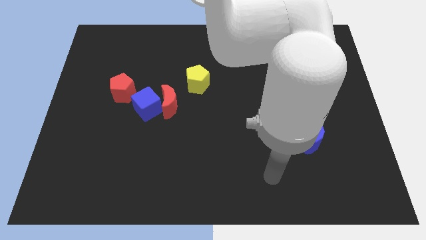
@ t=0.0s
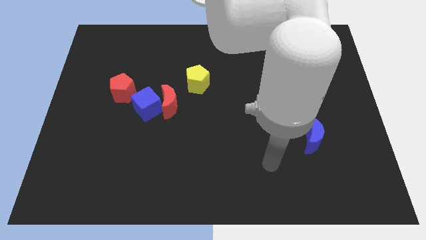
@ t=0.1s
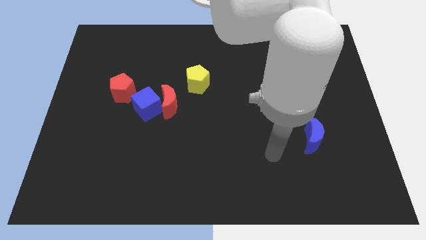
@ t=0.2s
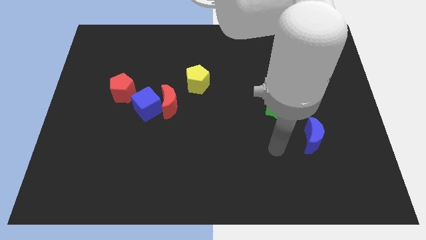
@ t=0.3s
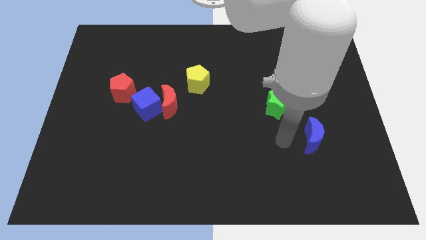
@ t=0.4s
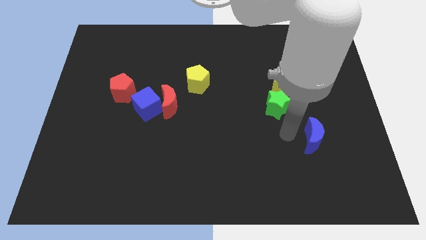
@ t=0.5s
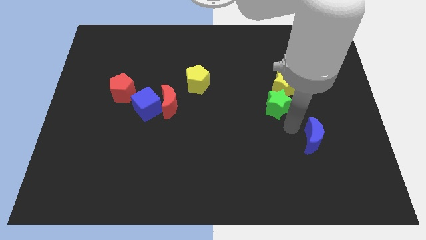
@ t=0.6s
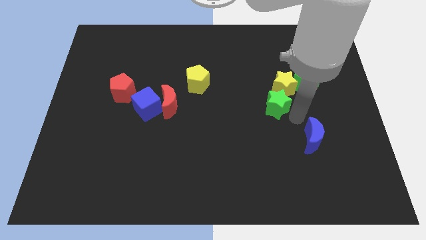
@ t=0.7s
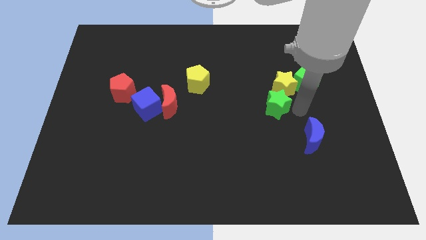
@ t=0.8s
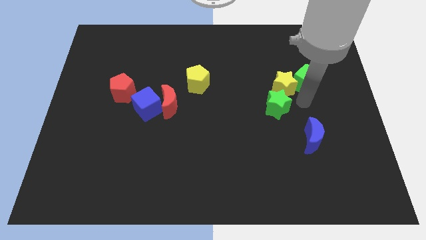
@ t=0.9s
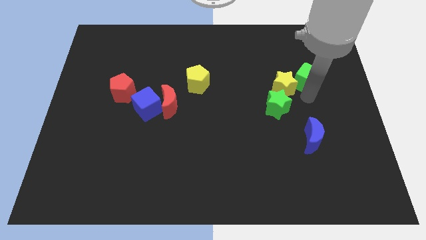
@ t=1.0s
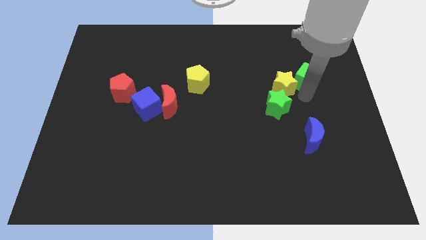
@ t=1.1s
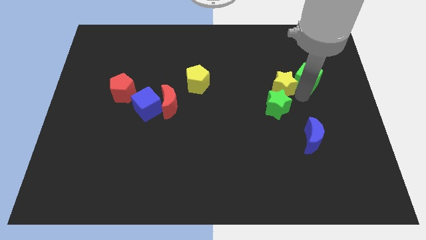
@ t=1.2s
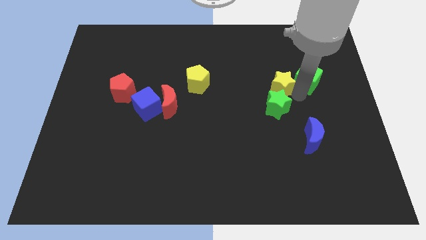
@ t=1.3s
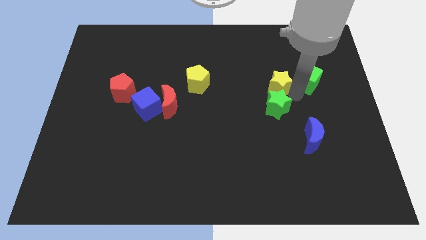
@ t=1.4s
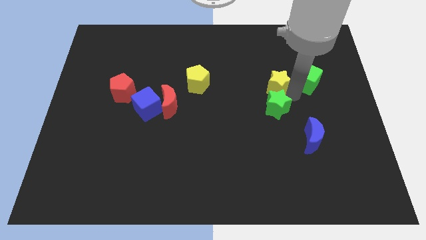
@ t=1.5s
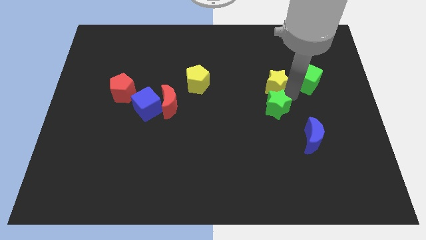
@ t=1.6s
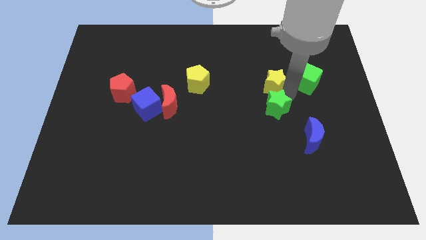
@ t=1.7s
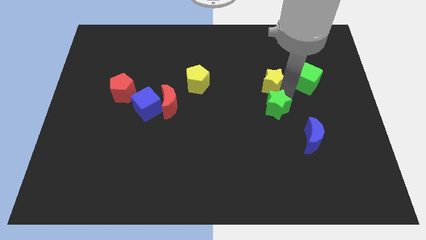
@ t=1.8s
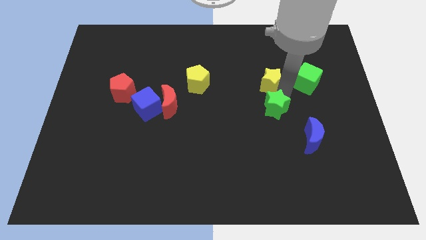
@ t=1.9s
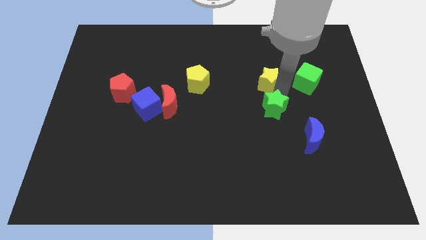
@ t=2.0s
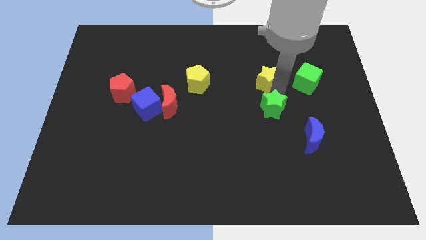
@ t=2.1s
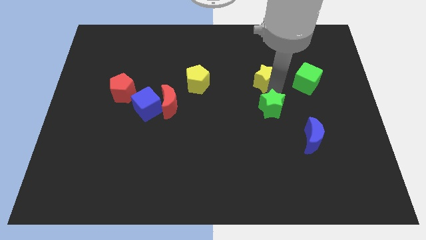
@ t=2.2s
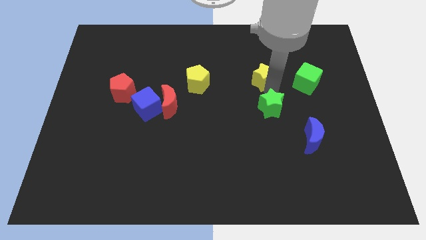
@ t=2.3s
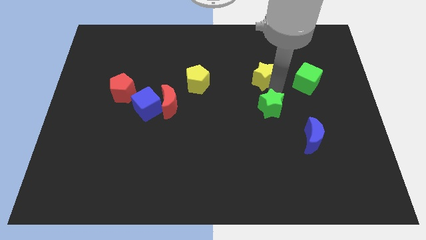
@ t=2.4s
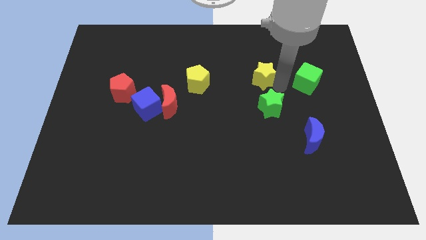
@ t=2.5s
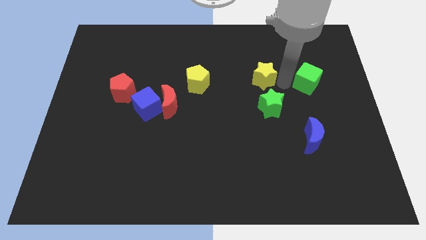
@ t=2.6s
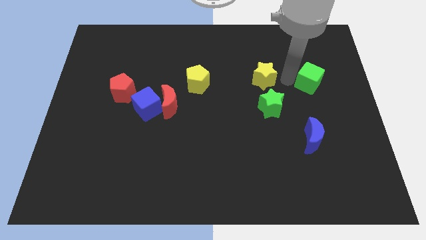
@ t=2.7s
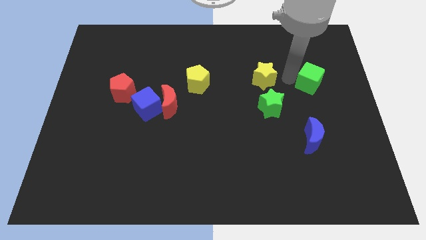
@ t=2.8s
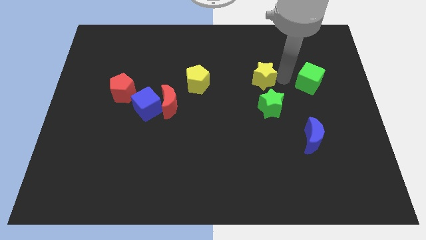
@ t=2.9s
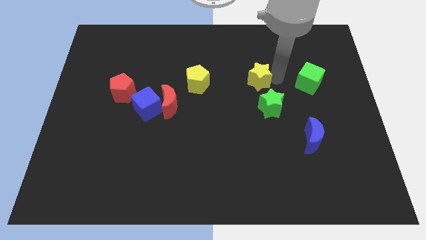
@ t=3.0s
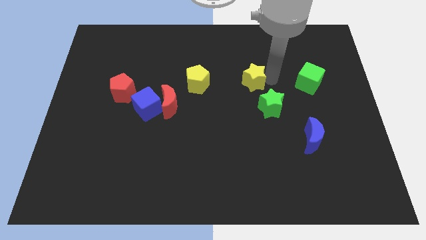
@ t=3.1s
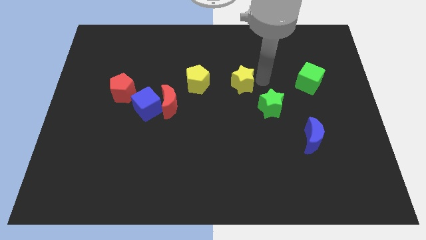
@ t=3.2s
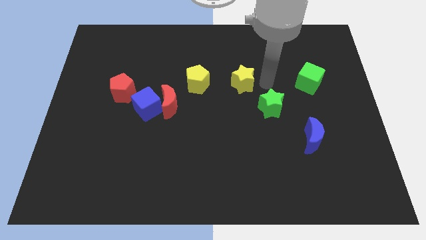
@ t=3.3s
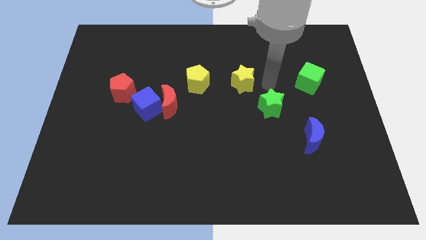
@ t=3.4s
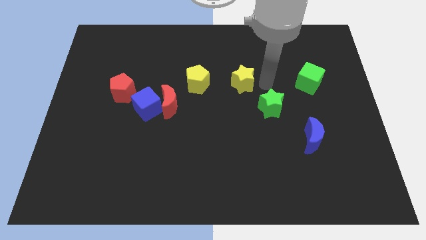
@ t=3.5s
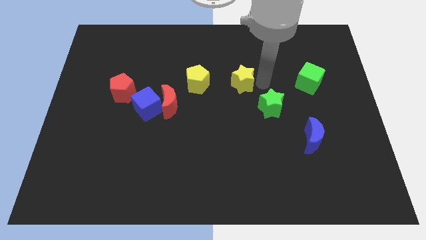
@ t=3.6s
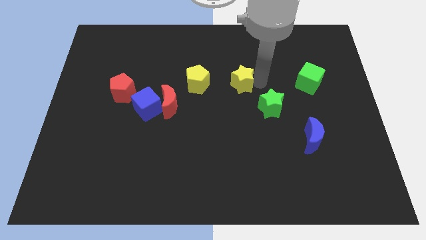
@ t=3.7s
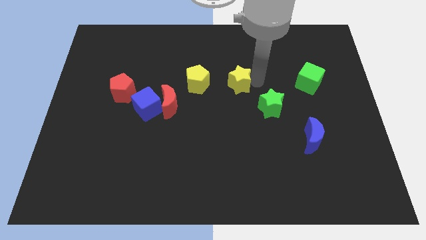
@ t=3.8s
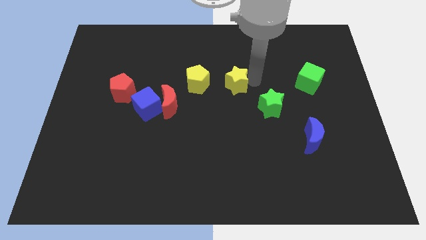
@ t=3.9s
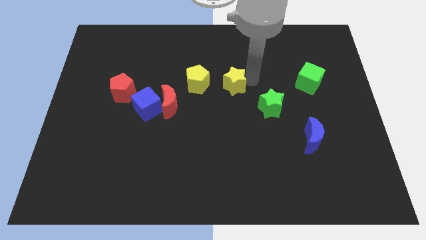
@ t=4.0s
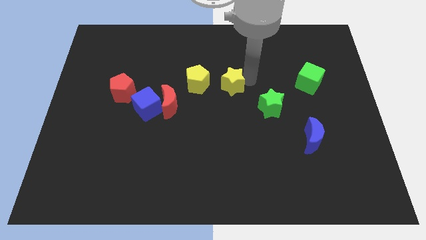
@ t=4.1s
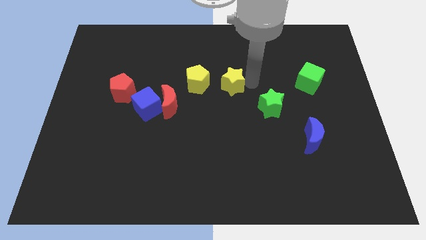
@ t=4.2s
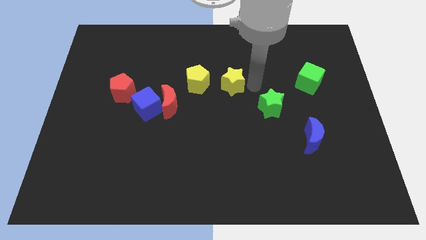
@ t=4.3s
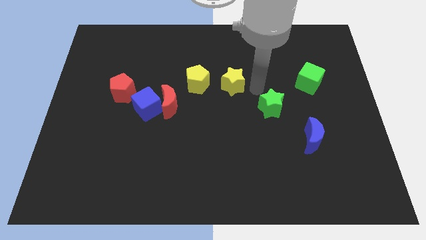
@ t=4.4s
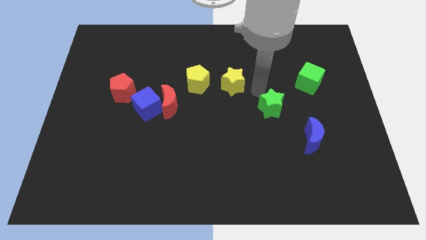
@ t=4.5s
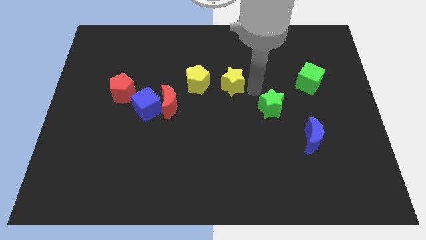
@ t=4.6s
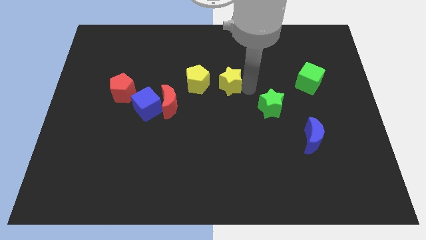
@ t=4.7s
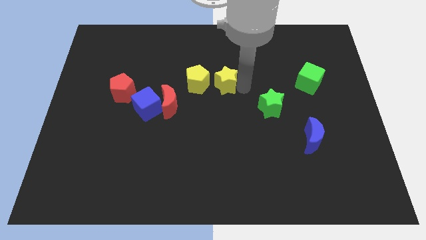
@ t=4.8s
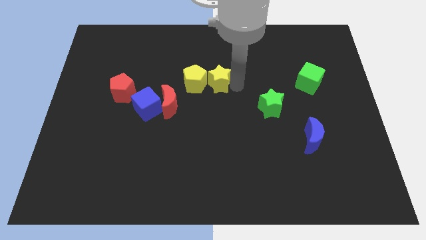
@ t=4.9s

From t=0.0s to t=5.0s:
push the yellow star close to the yellow pentagon

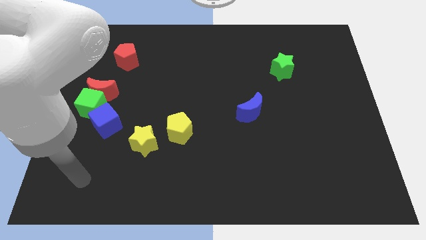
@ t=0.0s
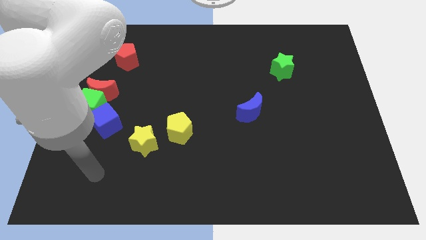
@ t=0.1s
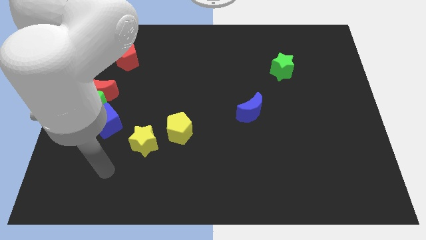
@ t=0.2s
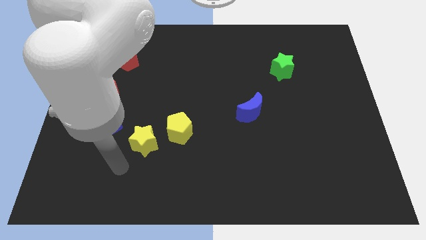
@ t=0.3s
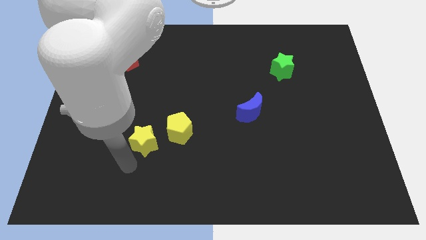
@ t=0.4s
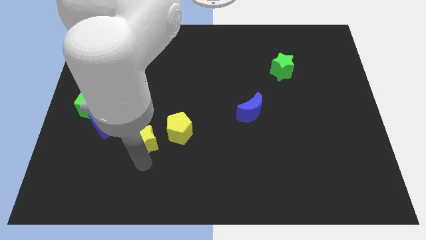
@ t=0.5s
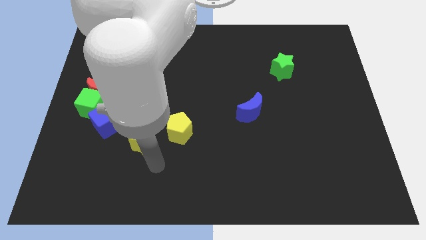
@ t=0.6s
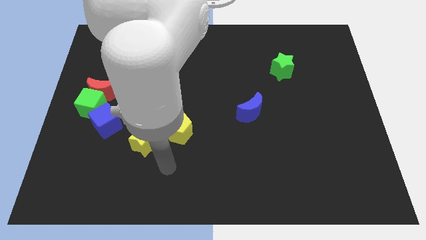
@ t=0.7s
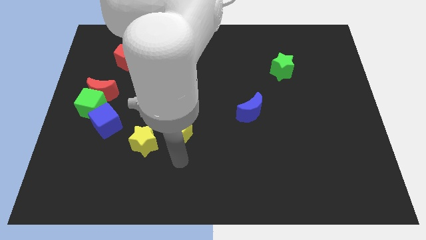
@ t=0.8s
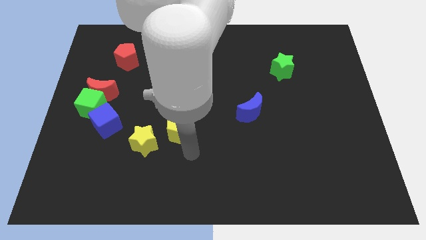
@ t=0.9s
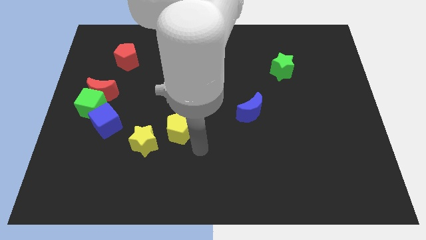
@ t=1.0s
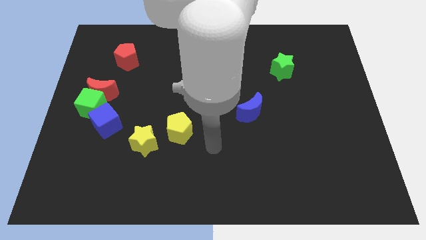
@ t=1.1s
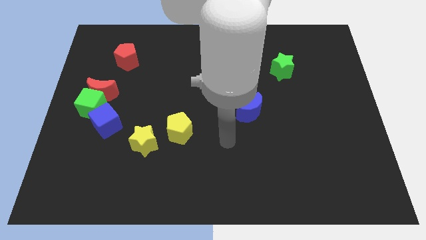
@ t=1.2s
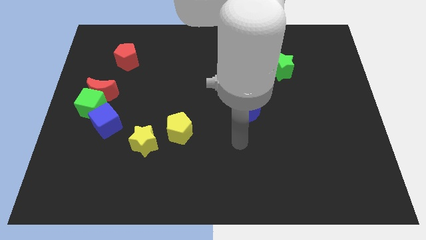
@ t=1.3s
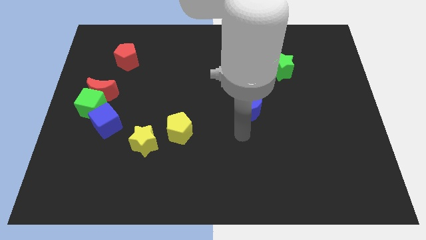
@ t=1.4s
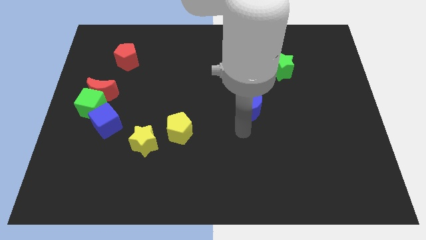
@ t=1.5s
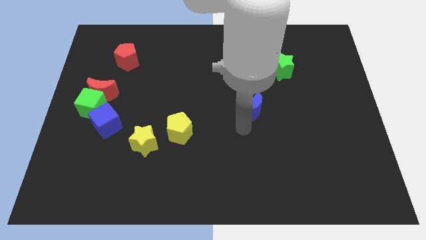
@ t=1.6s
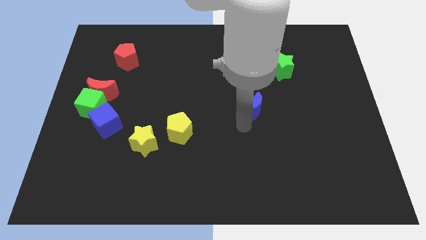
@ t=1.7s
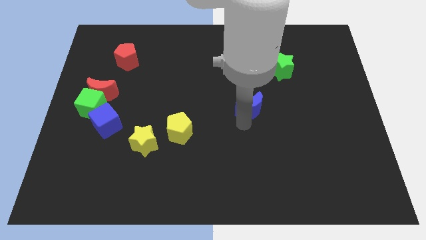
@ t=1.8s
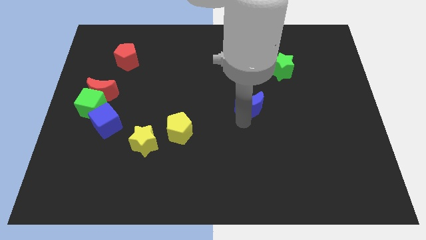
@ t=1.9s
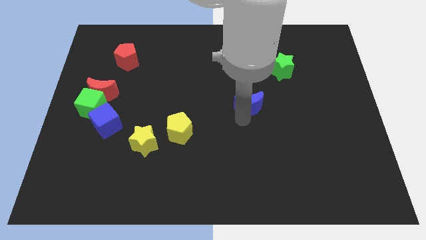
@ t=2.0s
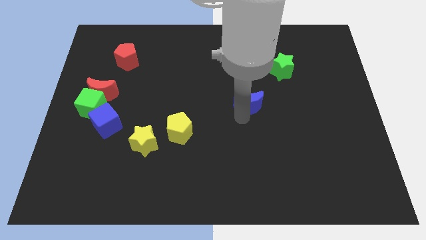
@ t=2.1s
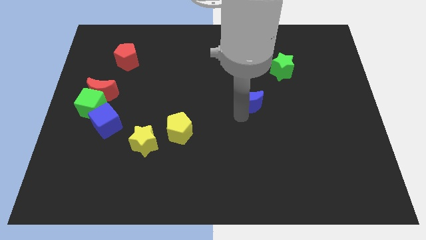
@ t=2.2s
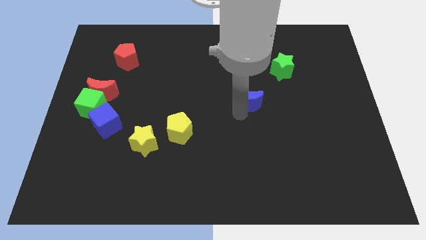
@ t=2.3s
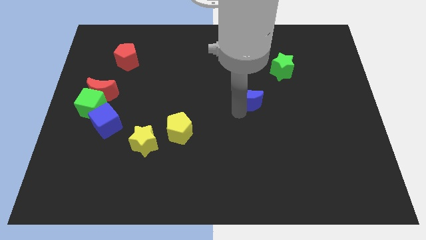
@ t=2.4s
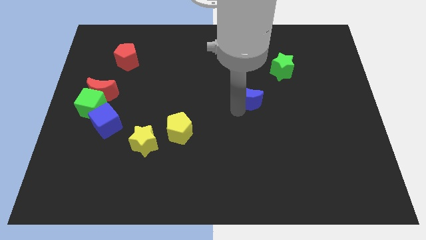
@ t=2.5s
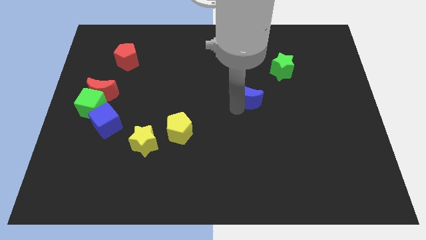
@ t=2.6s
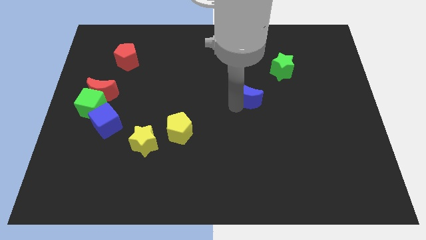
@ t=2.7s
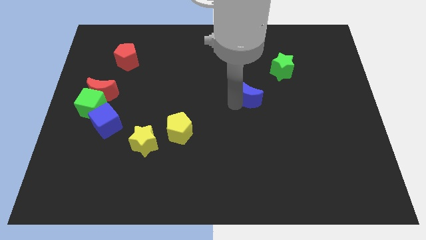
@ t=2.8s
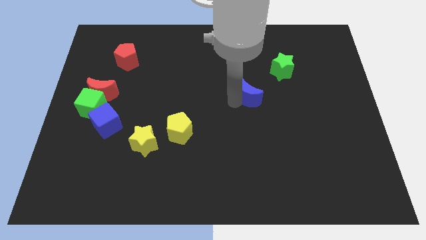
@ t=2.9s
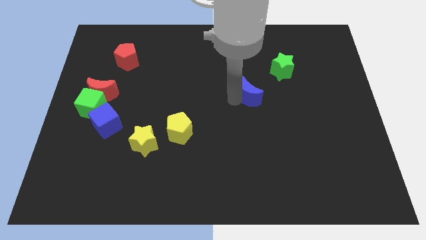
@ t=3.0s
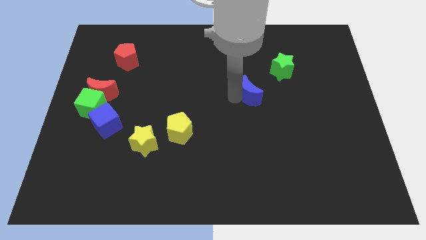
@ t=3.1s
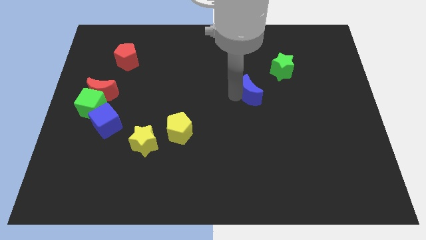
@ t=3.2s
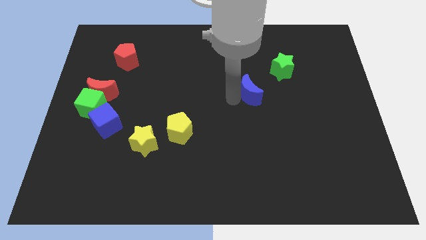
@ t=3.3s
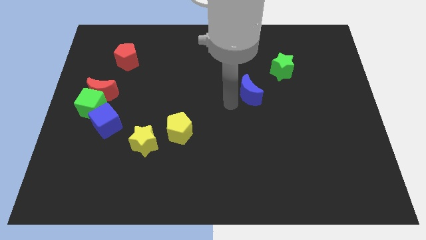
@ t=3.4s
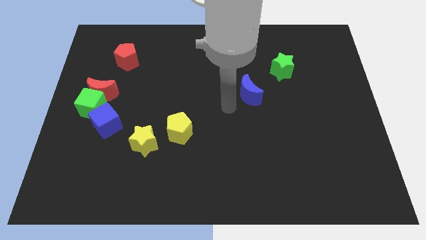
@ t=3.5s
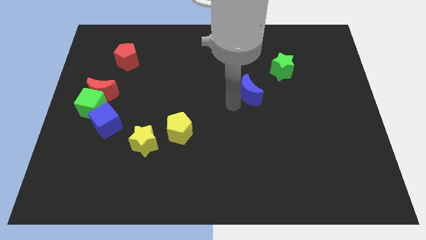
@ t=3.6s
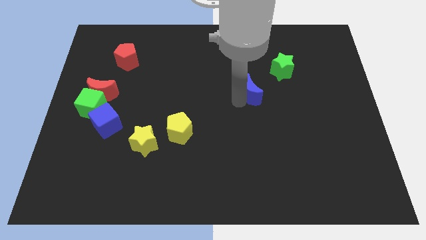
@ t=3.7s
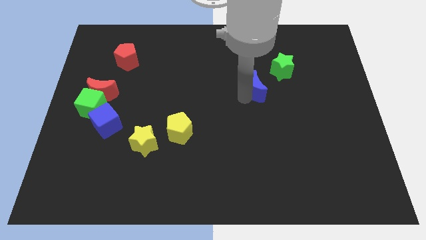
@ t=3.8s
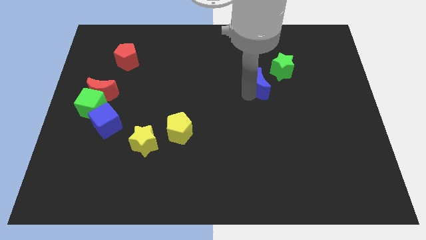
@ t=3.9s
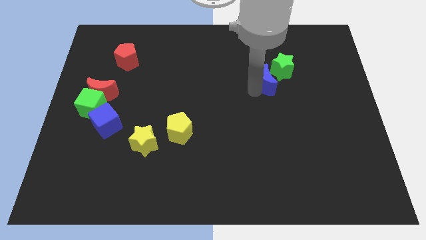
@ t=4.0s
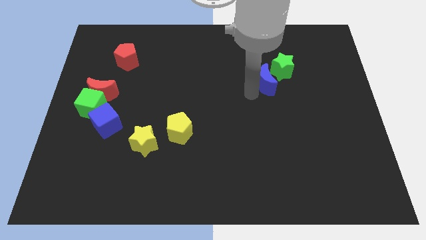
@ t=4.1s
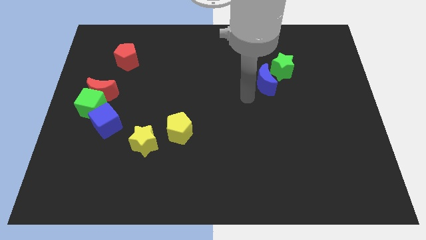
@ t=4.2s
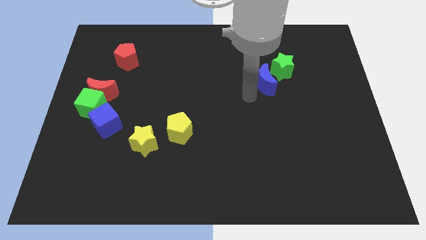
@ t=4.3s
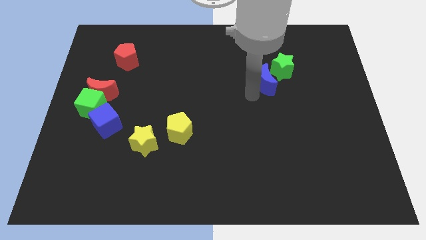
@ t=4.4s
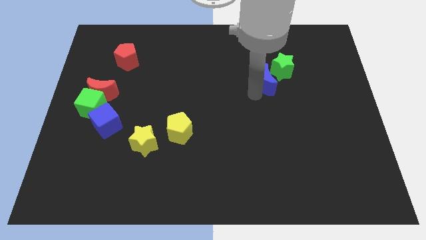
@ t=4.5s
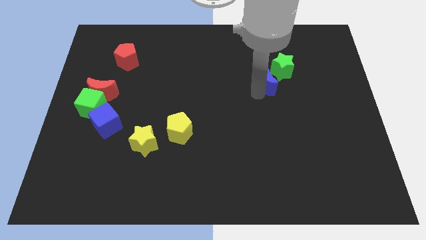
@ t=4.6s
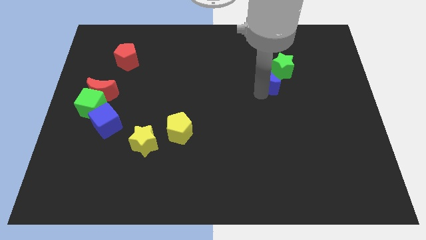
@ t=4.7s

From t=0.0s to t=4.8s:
push the blue moon to the green star
